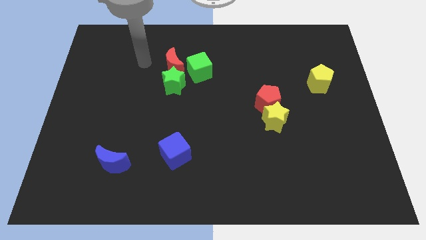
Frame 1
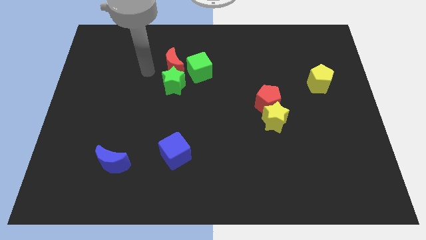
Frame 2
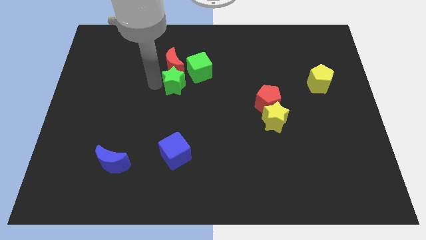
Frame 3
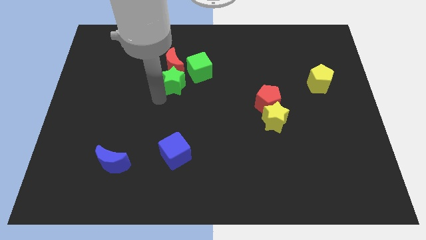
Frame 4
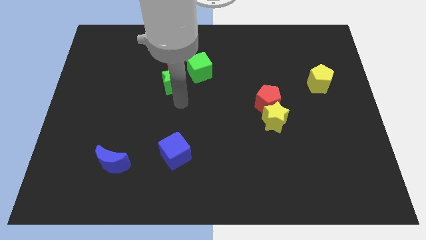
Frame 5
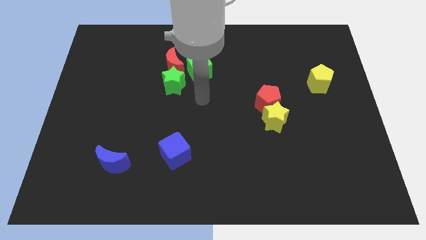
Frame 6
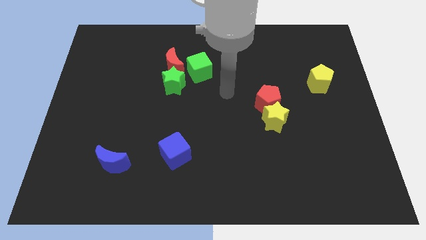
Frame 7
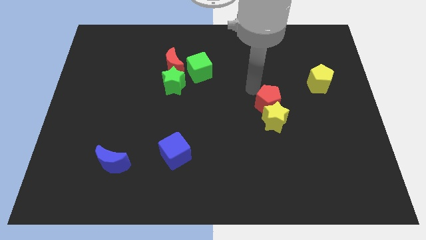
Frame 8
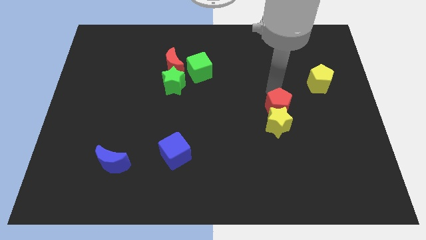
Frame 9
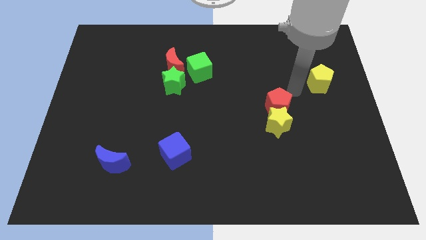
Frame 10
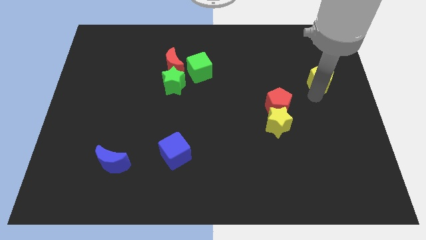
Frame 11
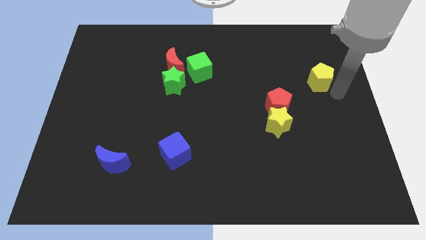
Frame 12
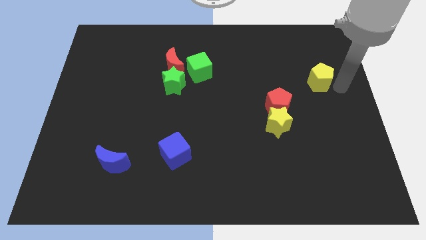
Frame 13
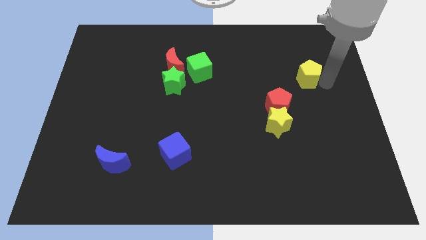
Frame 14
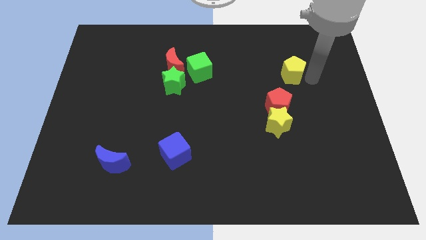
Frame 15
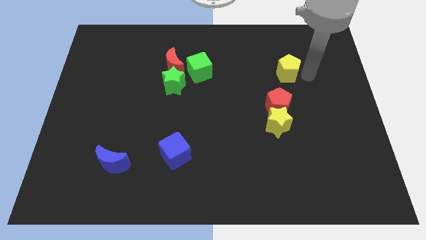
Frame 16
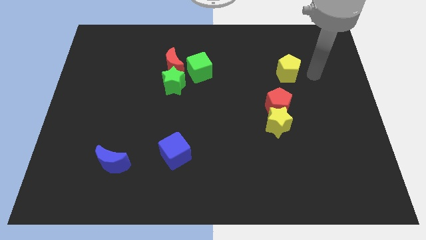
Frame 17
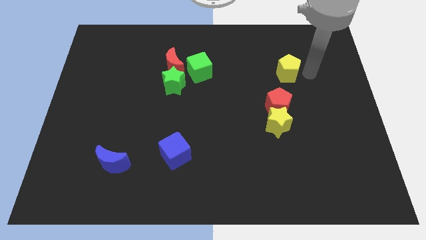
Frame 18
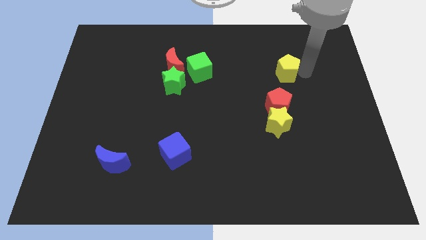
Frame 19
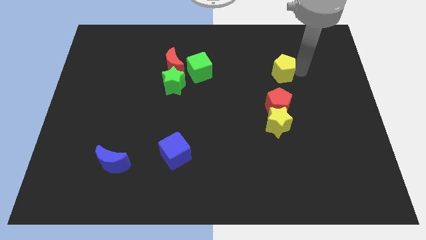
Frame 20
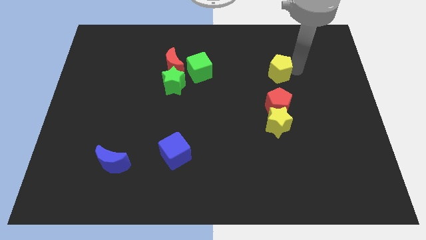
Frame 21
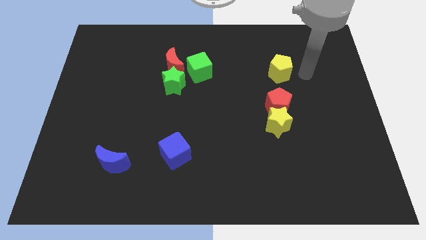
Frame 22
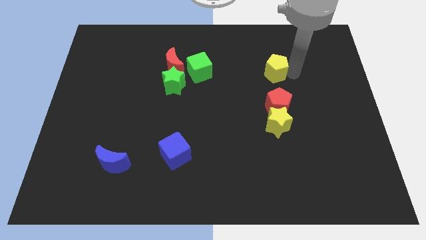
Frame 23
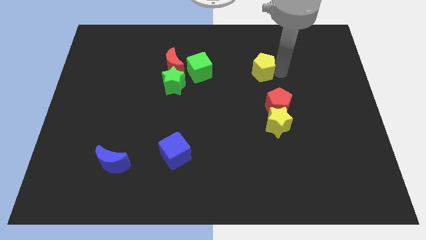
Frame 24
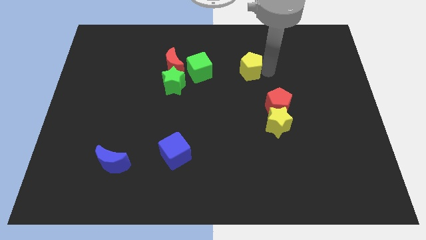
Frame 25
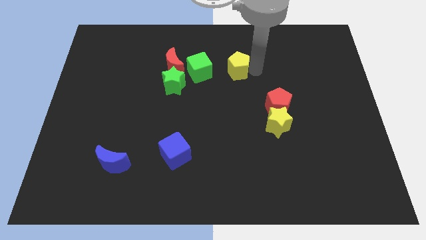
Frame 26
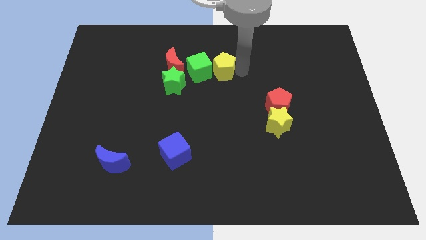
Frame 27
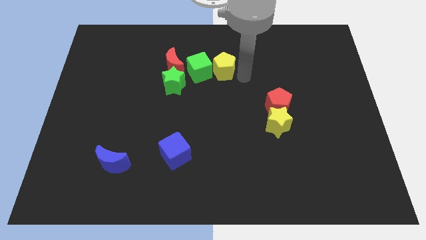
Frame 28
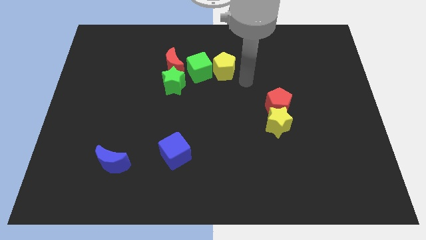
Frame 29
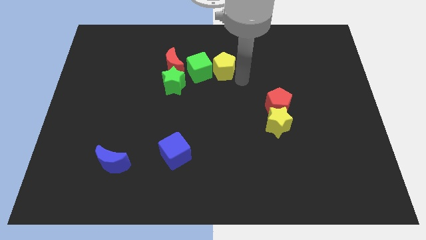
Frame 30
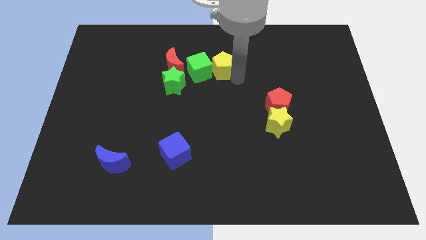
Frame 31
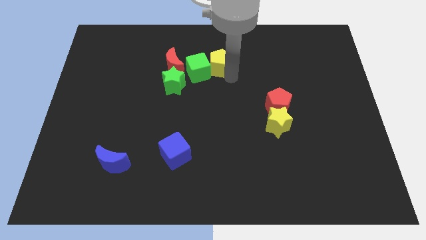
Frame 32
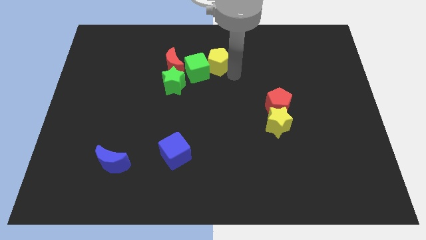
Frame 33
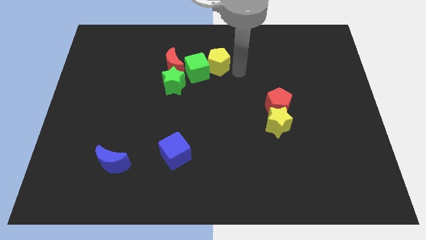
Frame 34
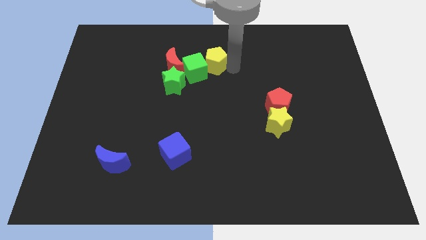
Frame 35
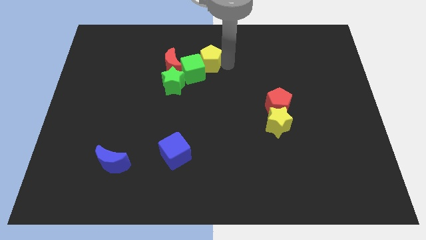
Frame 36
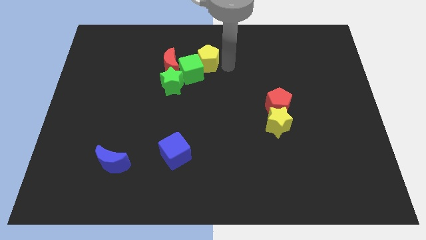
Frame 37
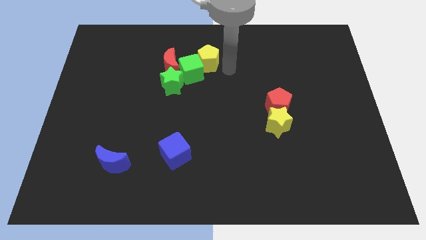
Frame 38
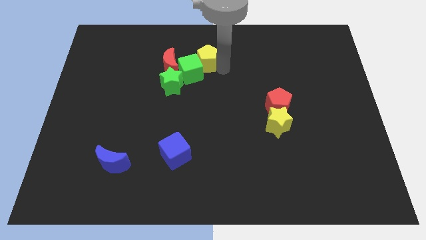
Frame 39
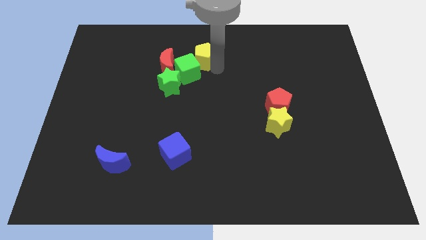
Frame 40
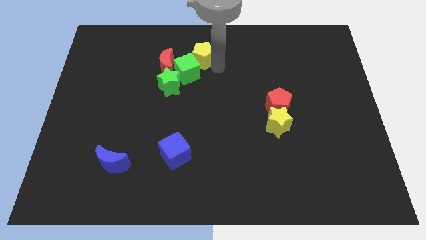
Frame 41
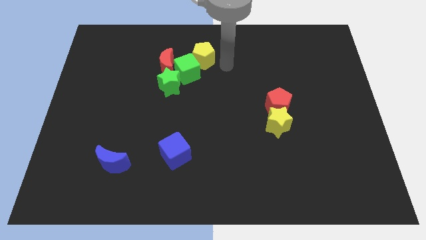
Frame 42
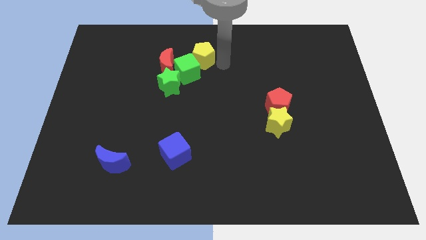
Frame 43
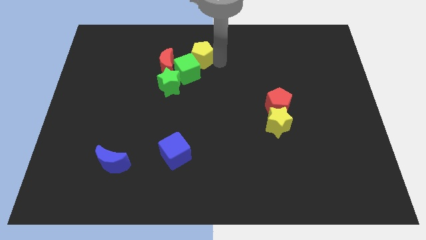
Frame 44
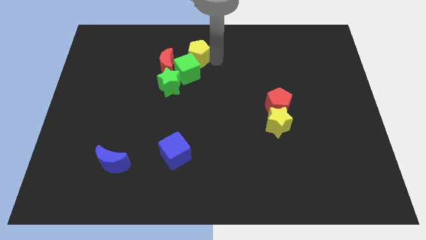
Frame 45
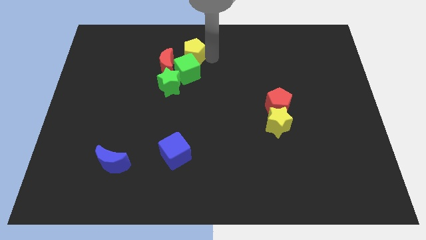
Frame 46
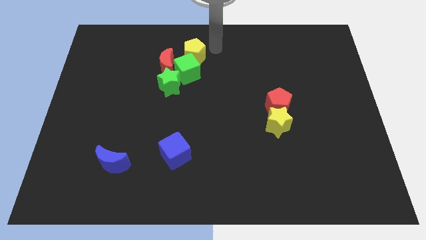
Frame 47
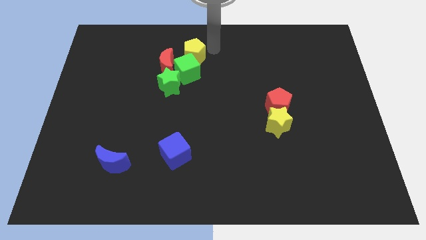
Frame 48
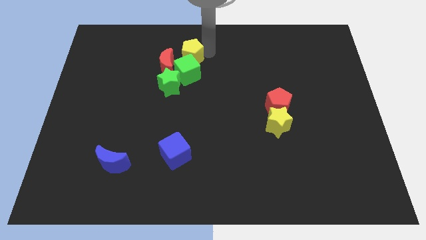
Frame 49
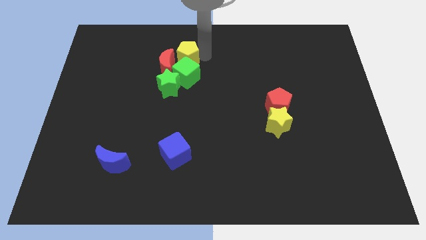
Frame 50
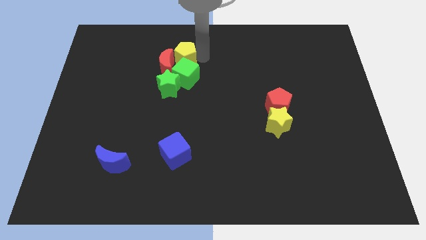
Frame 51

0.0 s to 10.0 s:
put the yellow pentagon to the red moon

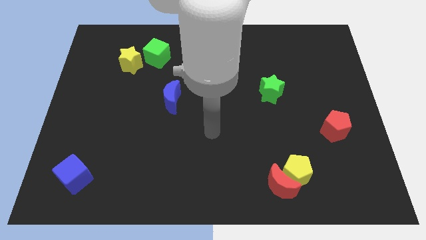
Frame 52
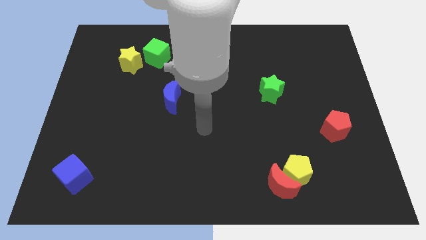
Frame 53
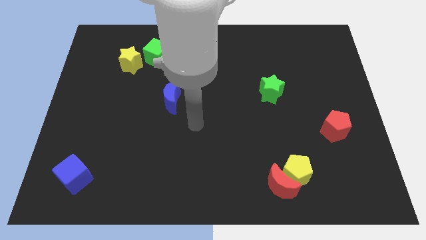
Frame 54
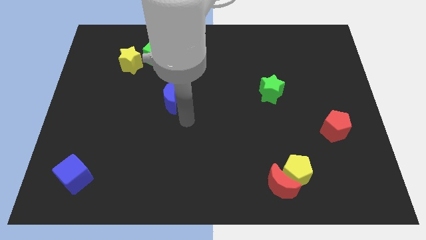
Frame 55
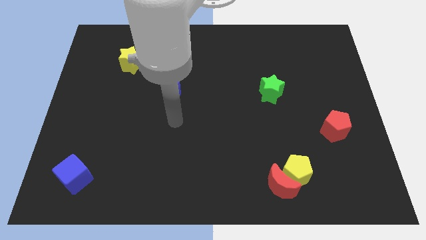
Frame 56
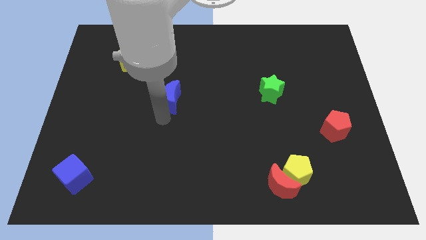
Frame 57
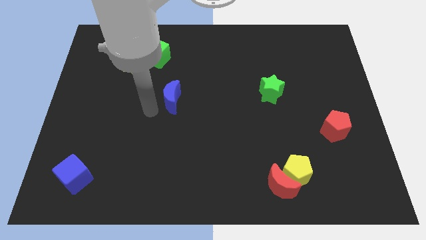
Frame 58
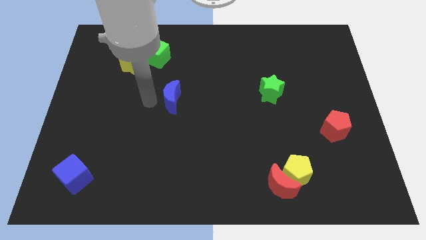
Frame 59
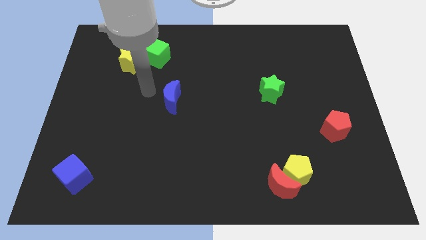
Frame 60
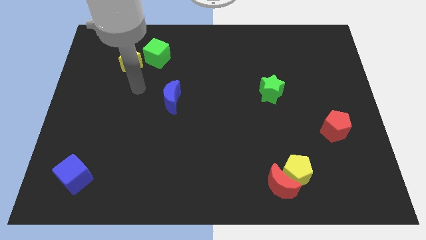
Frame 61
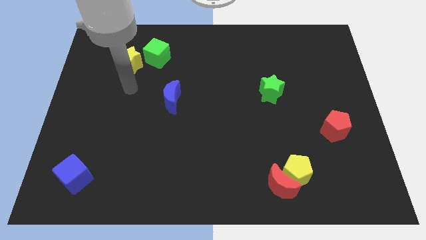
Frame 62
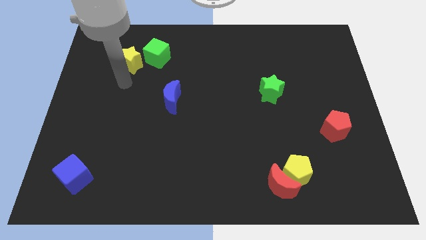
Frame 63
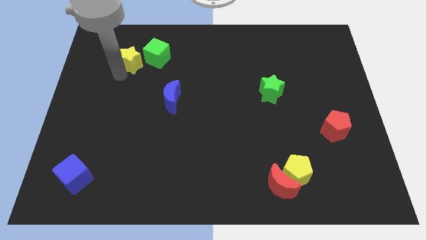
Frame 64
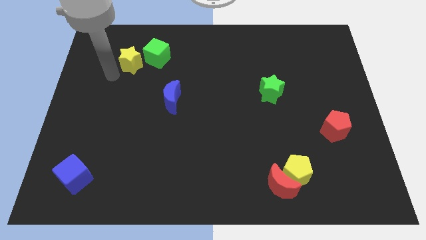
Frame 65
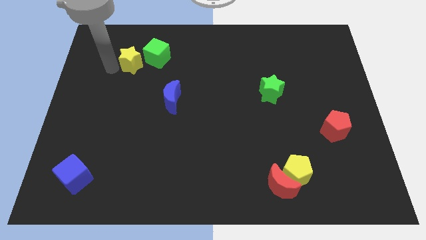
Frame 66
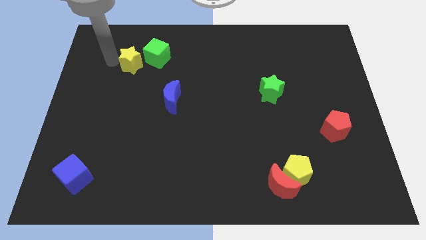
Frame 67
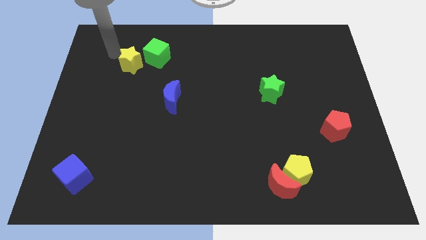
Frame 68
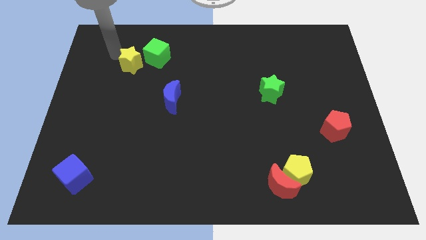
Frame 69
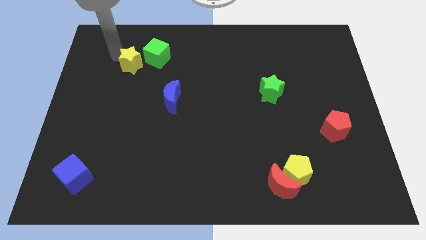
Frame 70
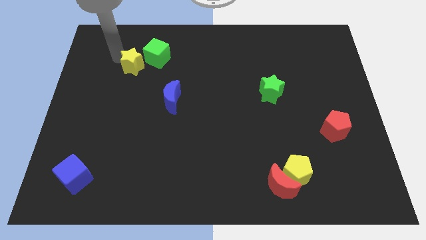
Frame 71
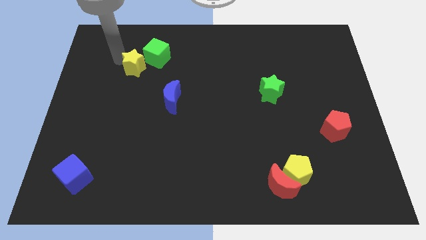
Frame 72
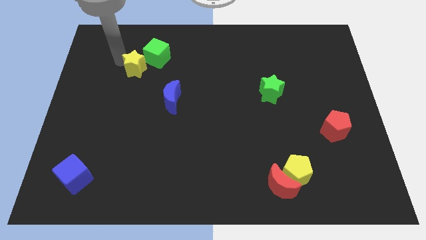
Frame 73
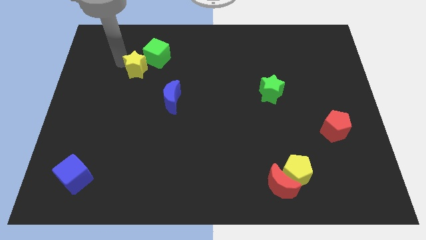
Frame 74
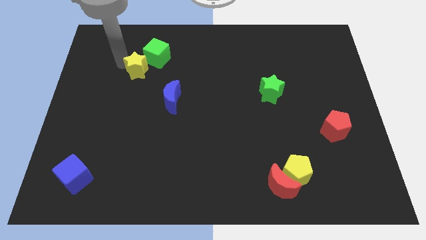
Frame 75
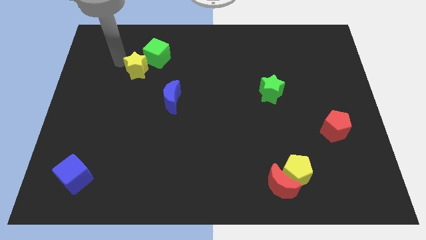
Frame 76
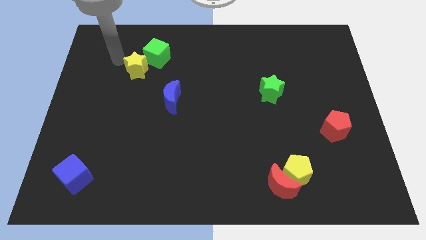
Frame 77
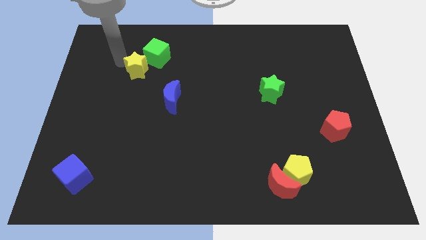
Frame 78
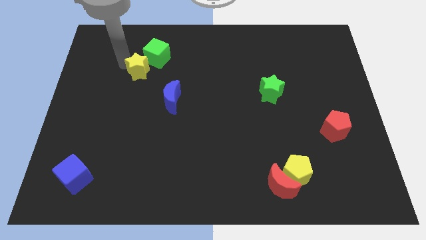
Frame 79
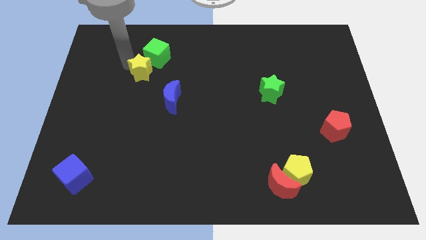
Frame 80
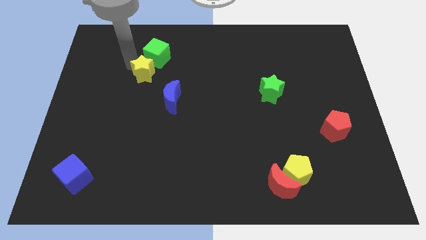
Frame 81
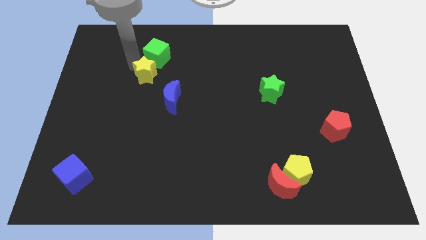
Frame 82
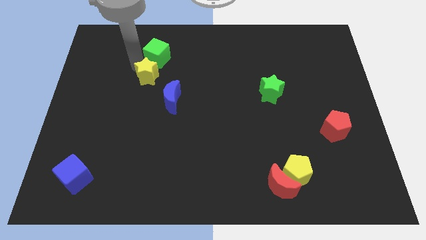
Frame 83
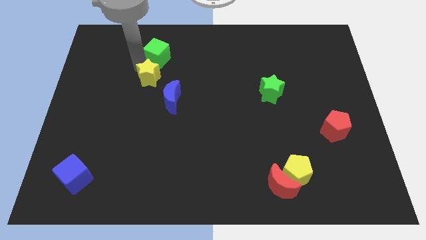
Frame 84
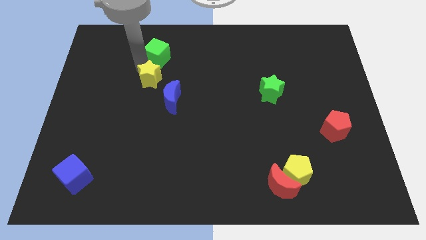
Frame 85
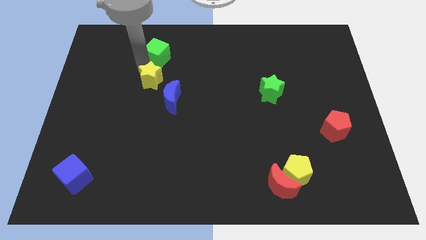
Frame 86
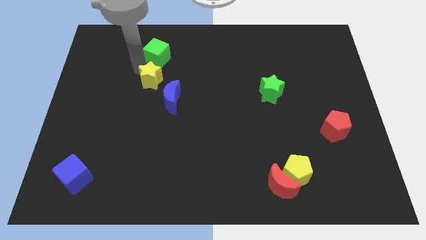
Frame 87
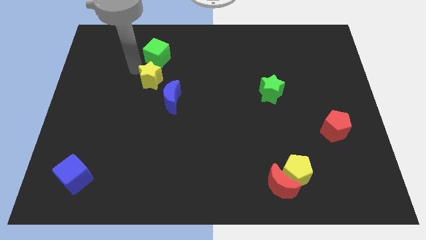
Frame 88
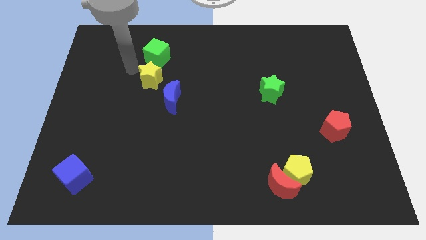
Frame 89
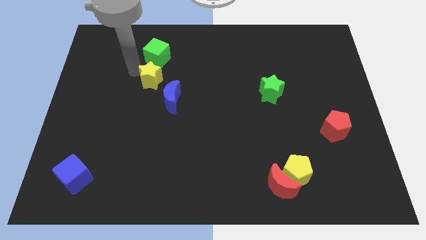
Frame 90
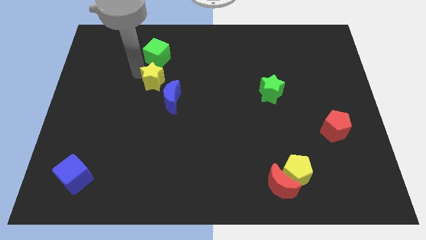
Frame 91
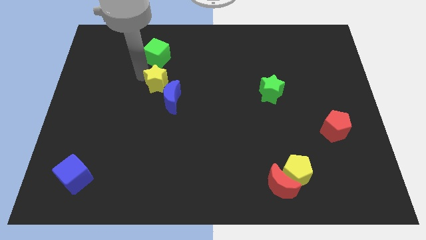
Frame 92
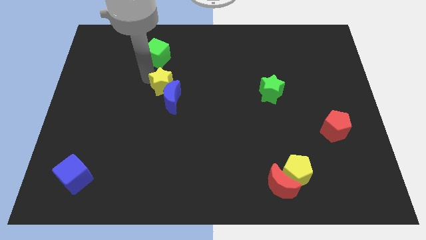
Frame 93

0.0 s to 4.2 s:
move the yellow star close to the blue moon
